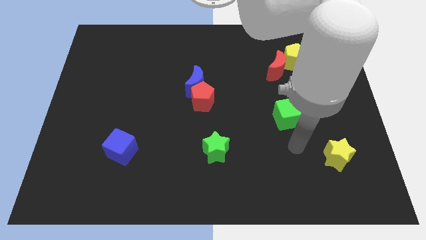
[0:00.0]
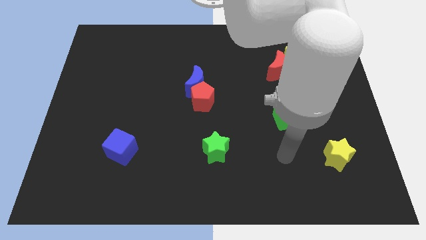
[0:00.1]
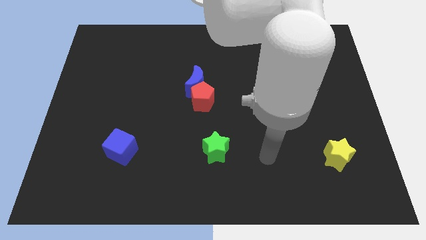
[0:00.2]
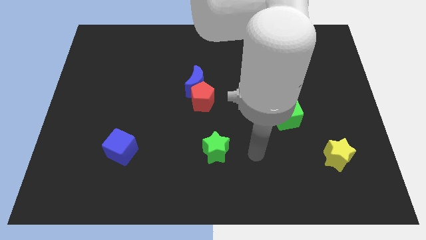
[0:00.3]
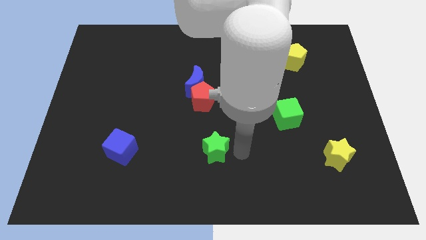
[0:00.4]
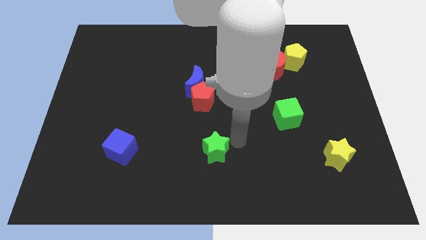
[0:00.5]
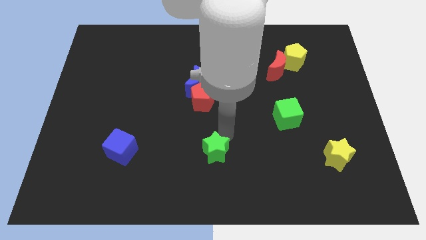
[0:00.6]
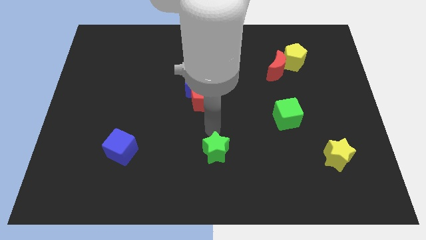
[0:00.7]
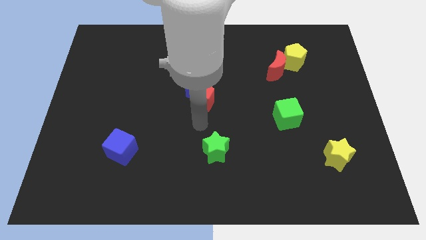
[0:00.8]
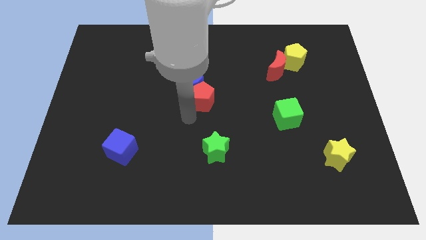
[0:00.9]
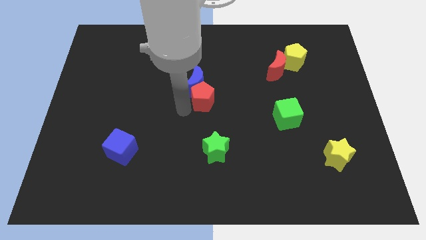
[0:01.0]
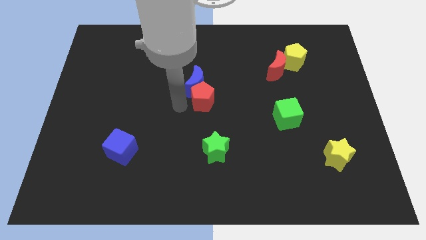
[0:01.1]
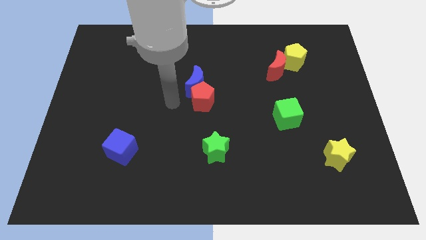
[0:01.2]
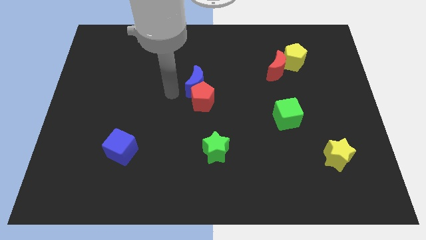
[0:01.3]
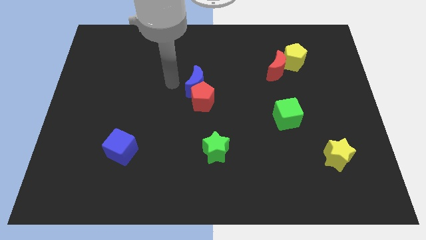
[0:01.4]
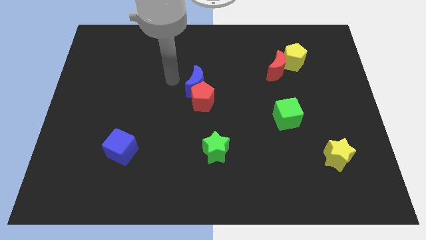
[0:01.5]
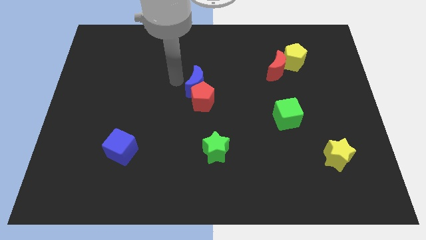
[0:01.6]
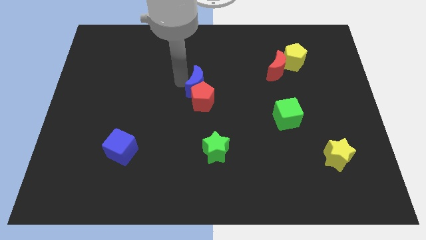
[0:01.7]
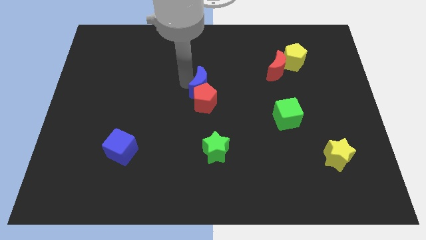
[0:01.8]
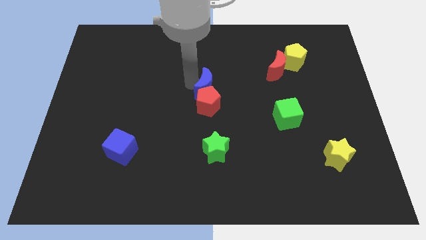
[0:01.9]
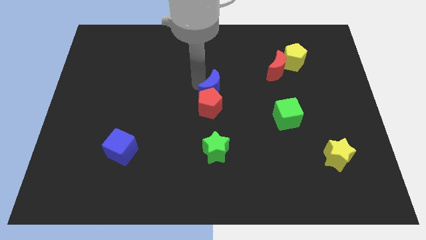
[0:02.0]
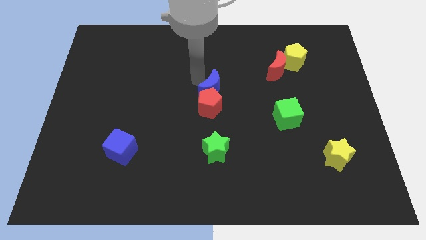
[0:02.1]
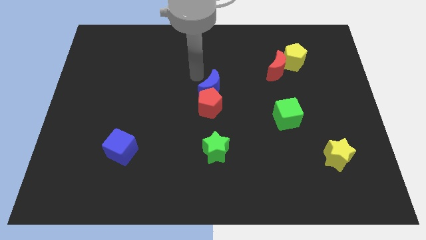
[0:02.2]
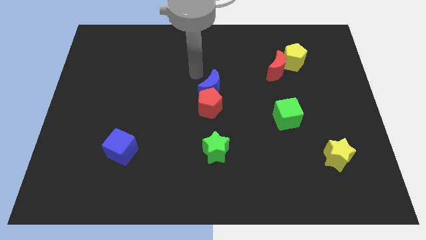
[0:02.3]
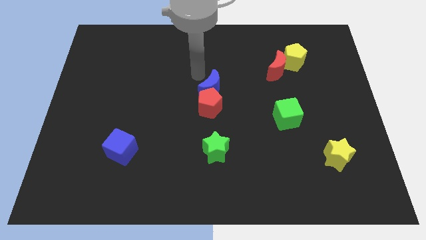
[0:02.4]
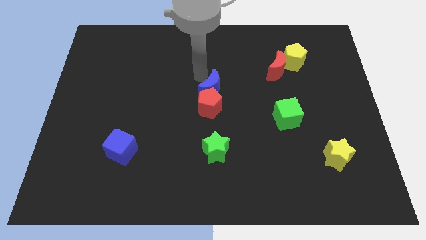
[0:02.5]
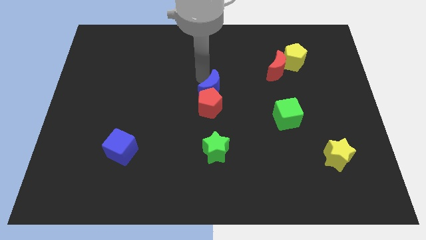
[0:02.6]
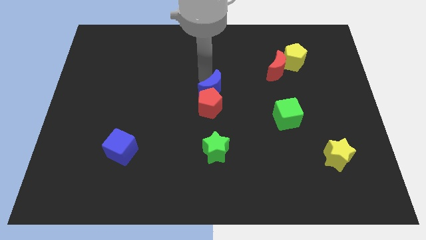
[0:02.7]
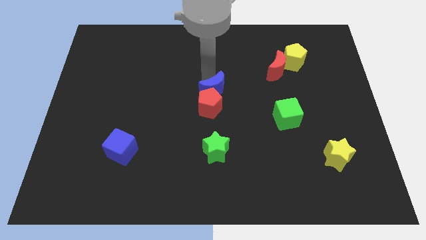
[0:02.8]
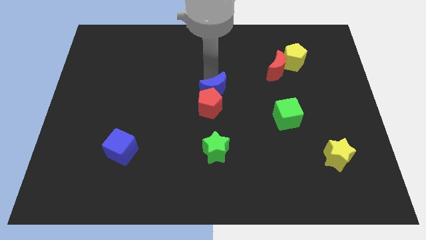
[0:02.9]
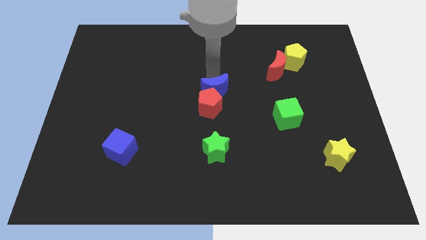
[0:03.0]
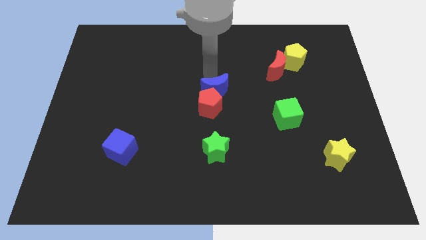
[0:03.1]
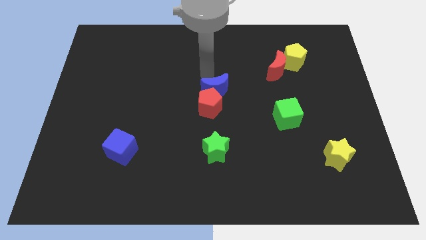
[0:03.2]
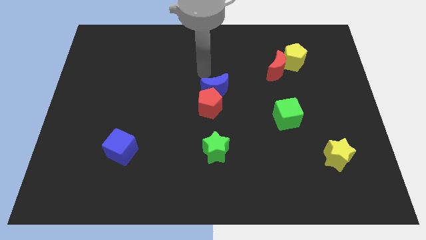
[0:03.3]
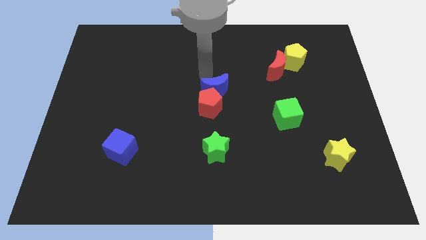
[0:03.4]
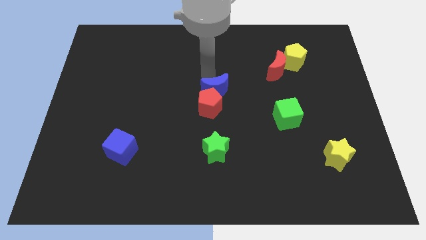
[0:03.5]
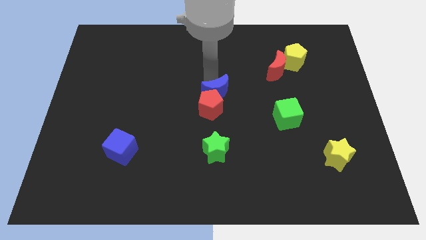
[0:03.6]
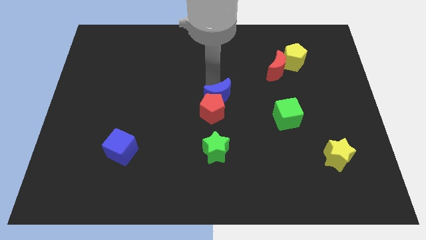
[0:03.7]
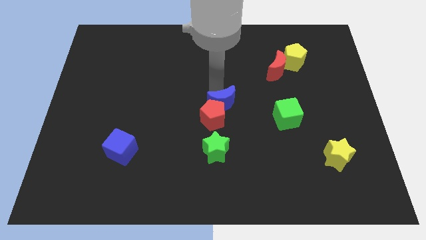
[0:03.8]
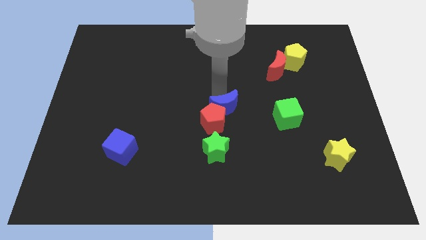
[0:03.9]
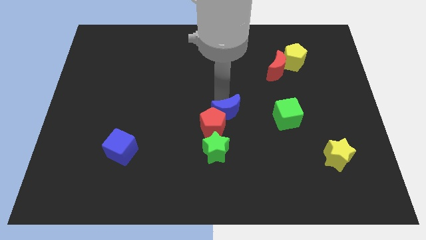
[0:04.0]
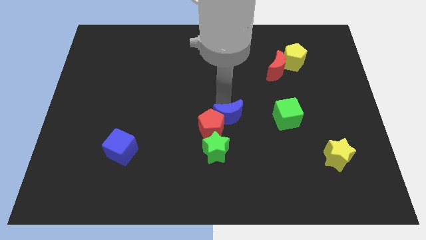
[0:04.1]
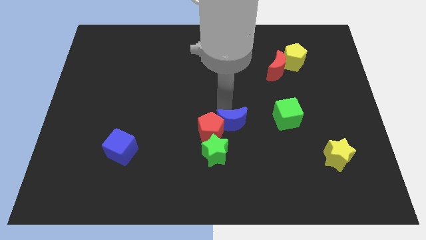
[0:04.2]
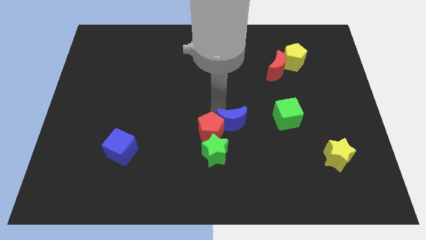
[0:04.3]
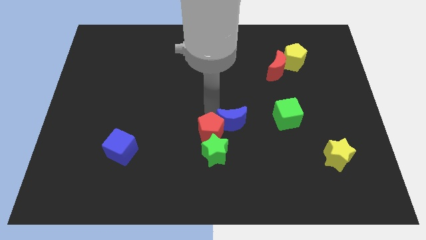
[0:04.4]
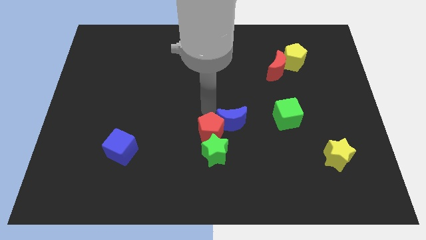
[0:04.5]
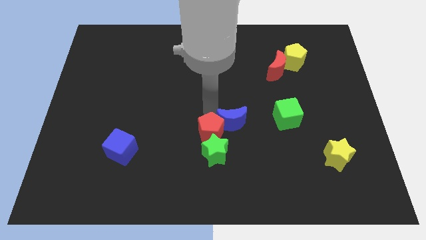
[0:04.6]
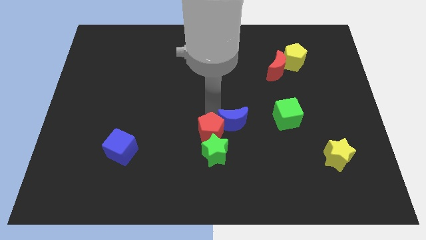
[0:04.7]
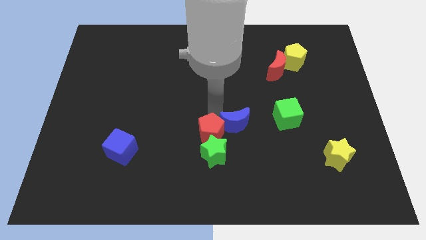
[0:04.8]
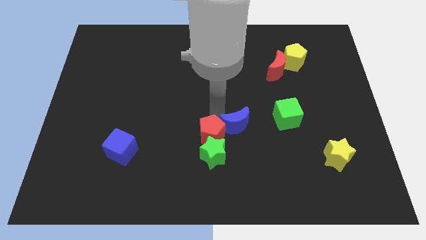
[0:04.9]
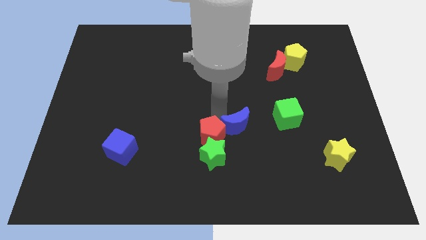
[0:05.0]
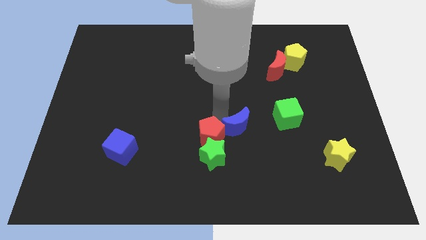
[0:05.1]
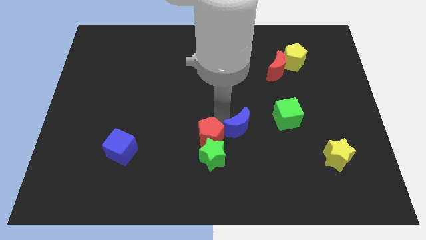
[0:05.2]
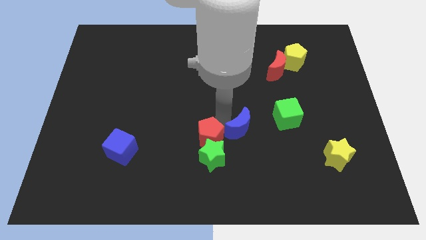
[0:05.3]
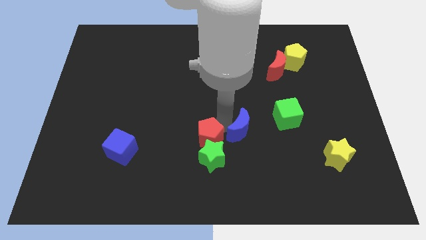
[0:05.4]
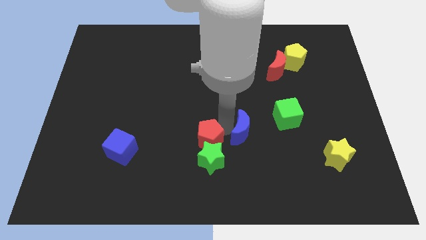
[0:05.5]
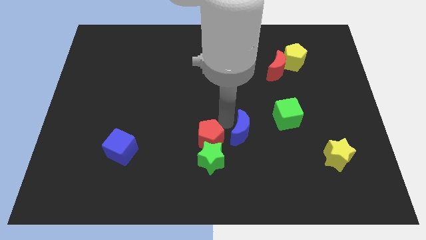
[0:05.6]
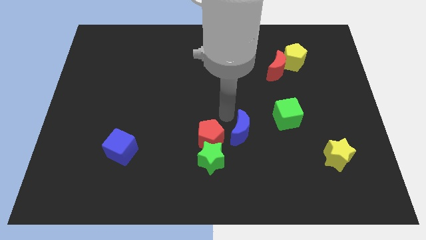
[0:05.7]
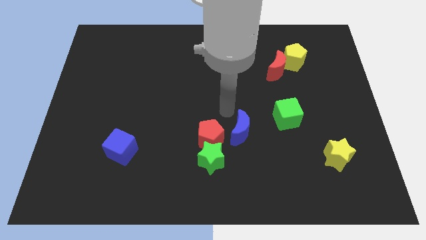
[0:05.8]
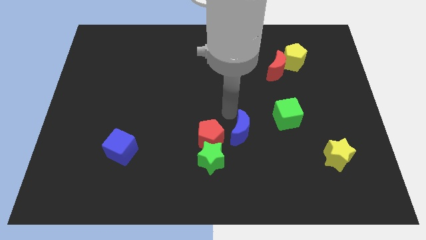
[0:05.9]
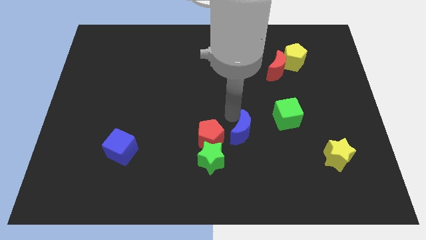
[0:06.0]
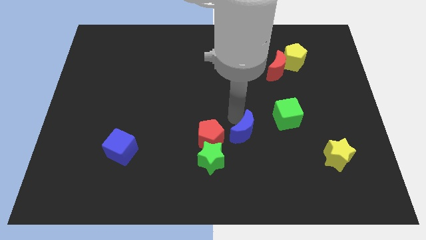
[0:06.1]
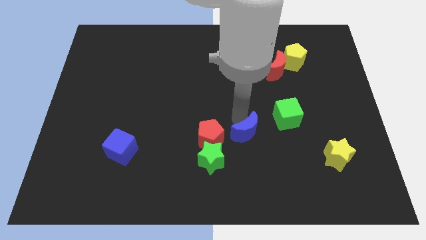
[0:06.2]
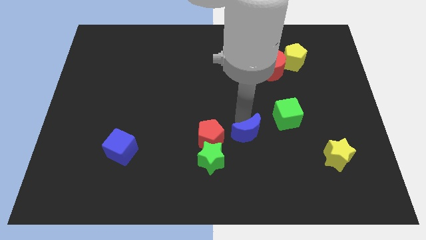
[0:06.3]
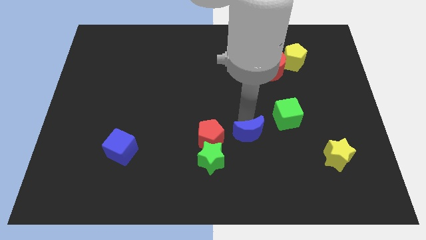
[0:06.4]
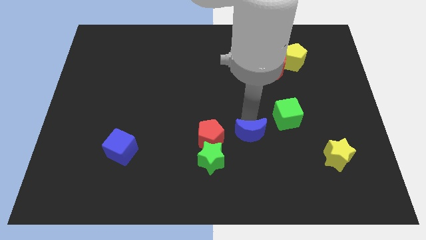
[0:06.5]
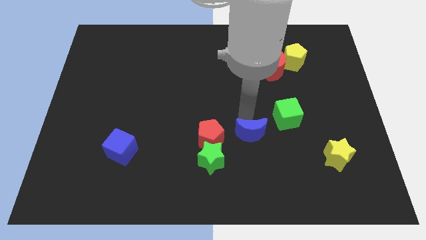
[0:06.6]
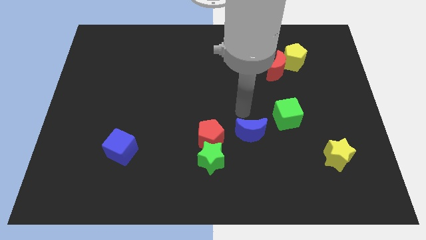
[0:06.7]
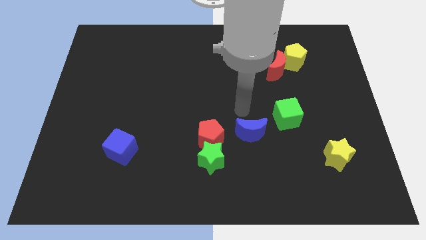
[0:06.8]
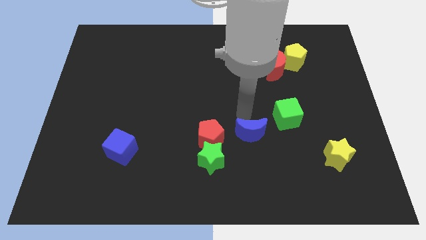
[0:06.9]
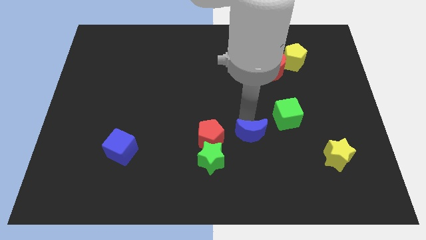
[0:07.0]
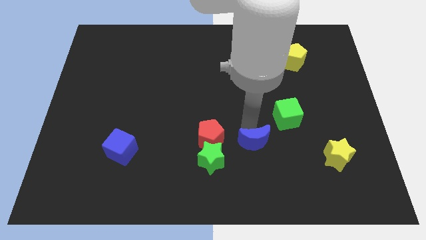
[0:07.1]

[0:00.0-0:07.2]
put the blue moon right of the green star
